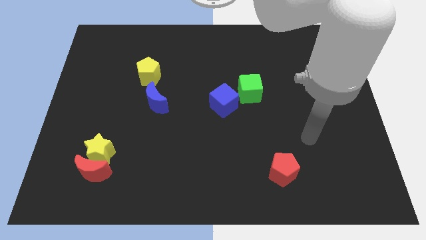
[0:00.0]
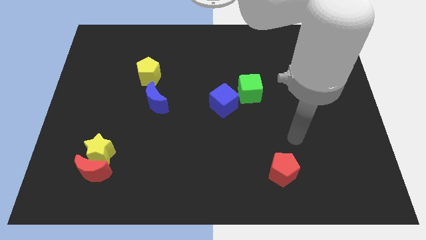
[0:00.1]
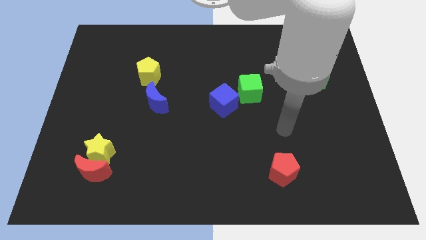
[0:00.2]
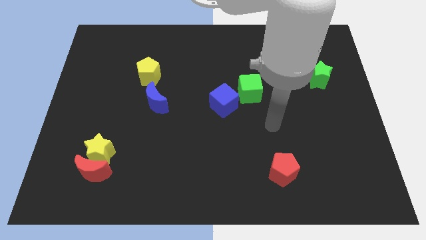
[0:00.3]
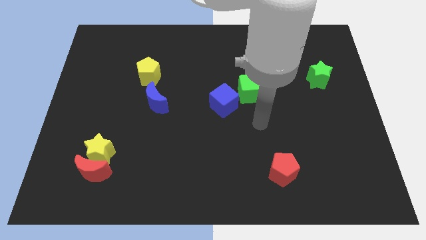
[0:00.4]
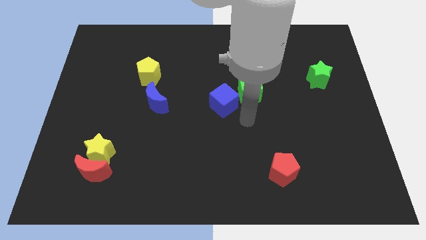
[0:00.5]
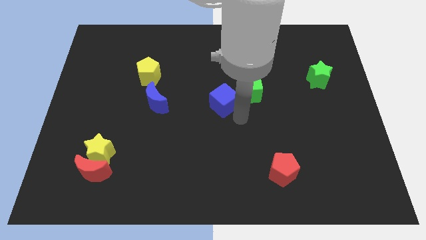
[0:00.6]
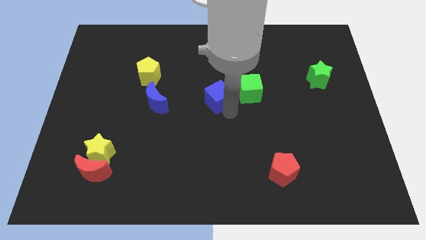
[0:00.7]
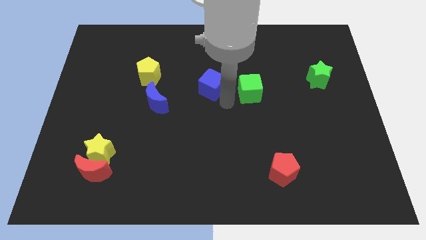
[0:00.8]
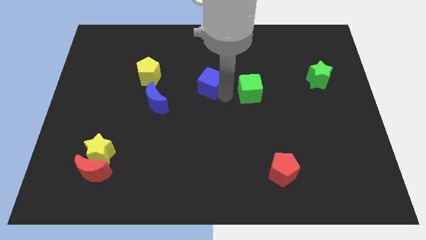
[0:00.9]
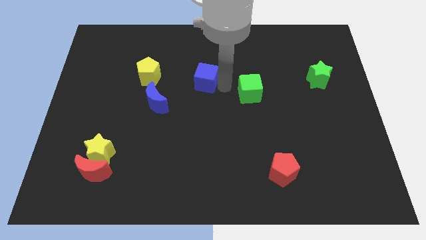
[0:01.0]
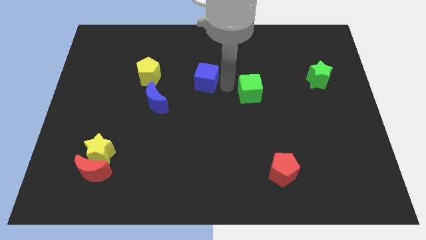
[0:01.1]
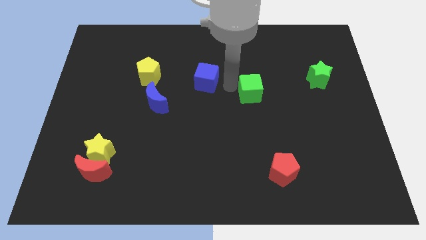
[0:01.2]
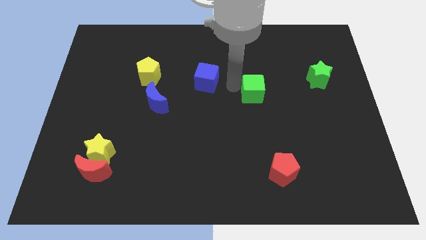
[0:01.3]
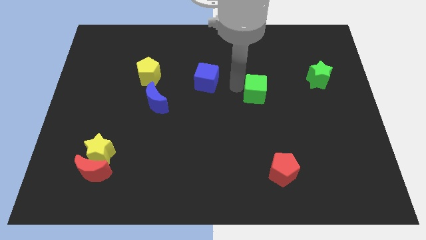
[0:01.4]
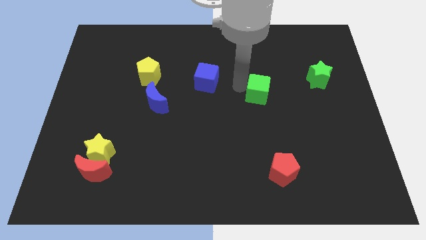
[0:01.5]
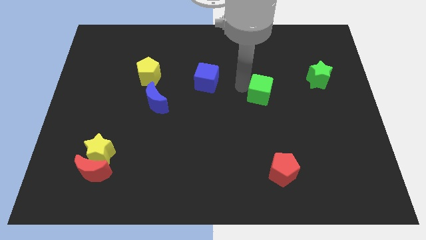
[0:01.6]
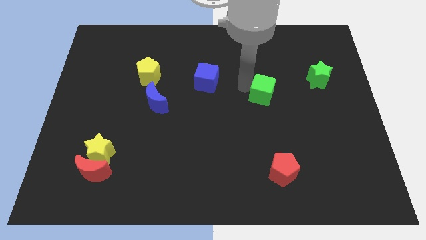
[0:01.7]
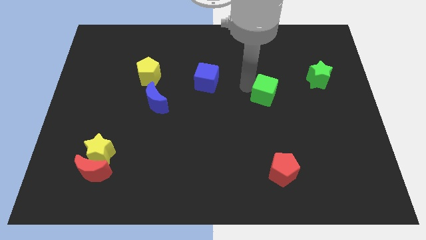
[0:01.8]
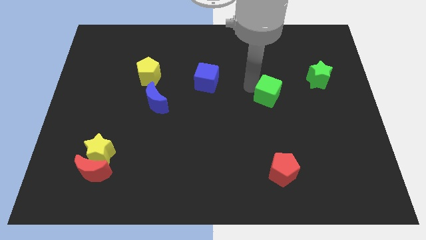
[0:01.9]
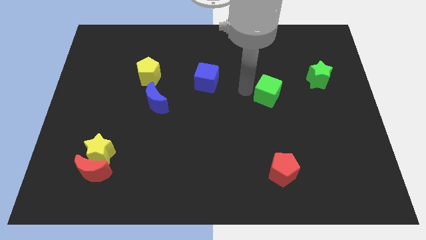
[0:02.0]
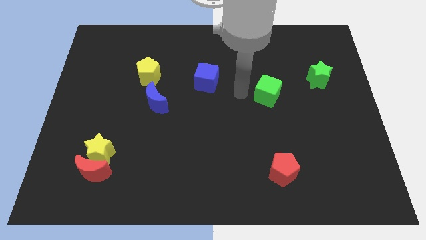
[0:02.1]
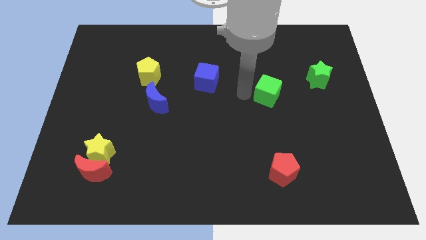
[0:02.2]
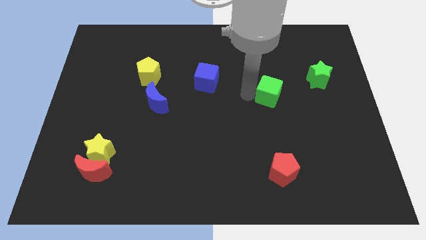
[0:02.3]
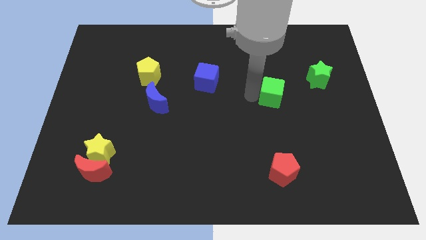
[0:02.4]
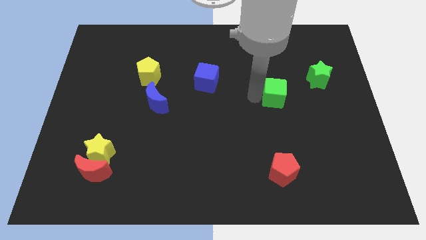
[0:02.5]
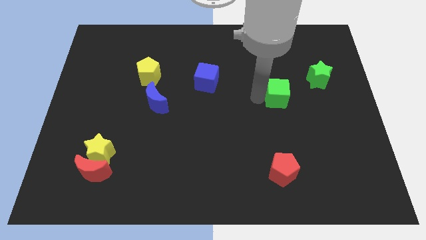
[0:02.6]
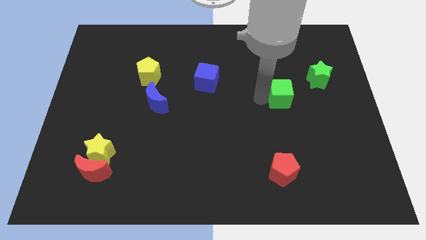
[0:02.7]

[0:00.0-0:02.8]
slightly move the green cube to the right

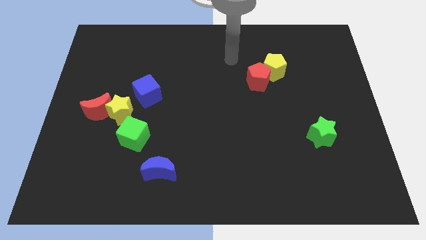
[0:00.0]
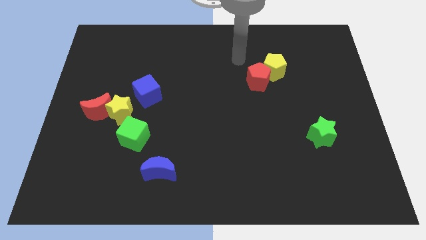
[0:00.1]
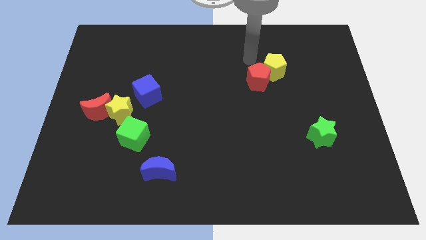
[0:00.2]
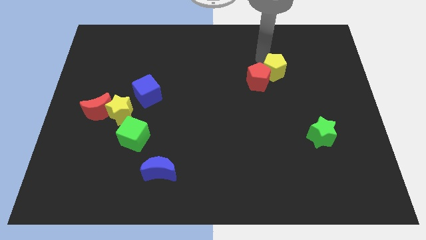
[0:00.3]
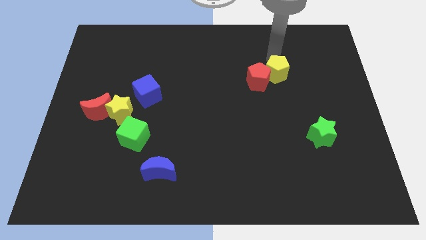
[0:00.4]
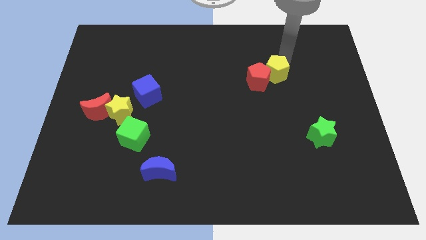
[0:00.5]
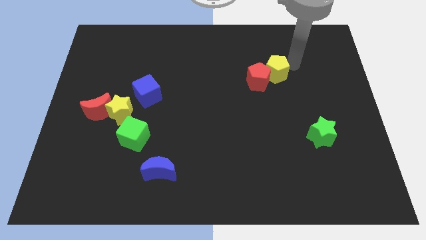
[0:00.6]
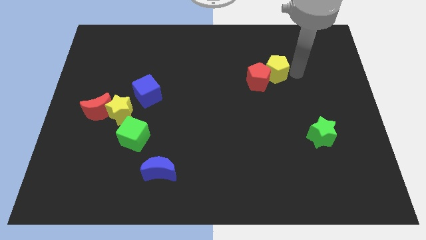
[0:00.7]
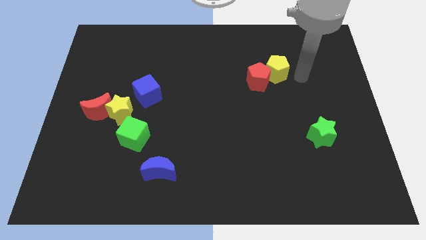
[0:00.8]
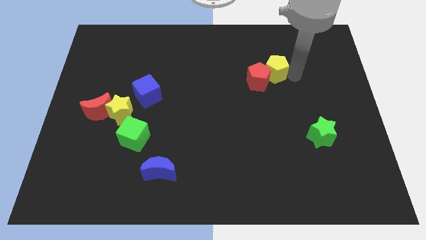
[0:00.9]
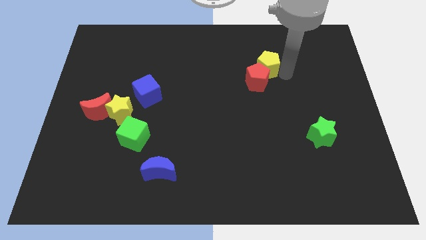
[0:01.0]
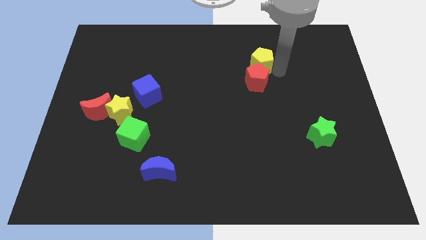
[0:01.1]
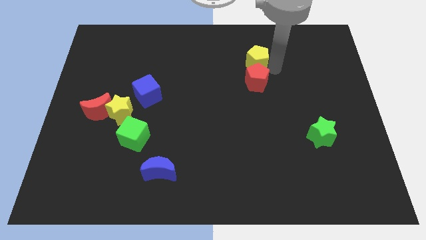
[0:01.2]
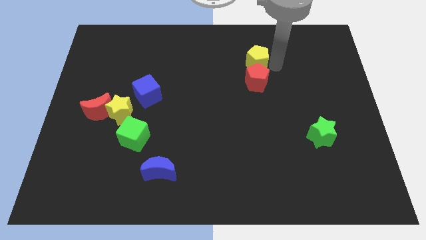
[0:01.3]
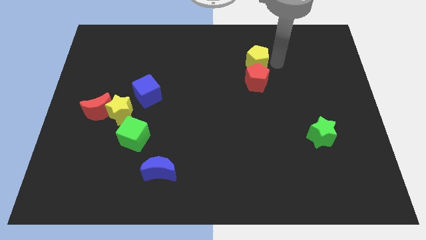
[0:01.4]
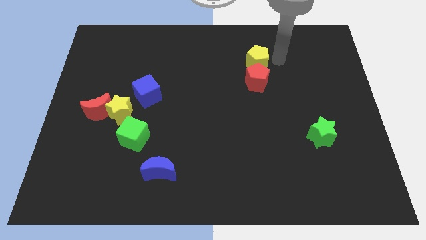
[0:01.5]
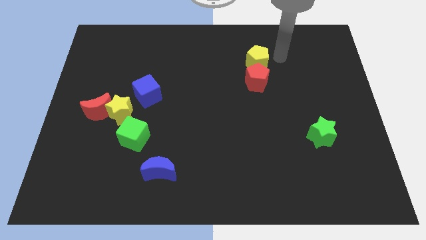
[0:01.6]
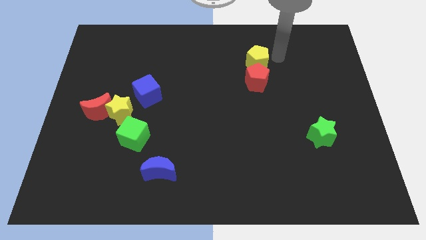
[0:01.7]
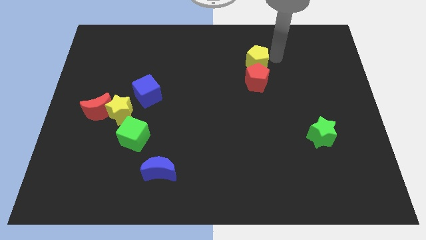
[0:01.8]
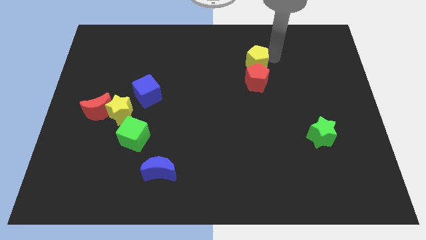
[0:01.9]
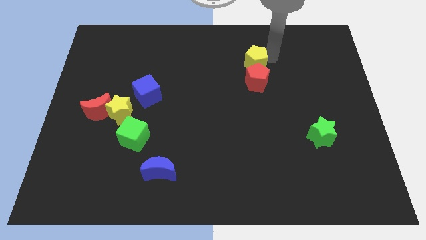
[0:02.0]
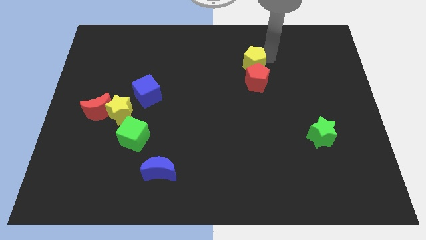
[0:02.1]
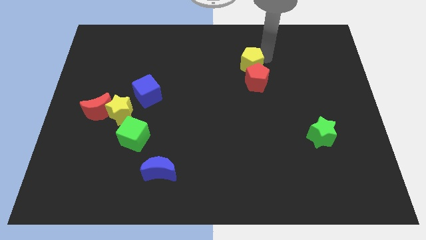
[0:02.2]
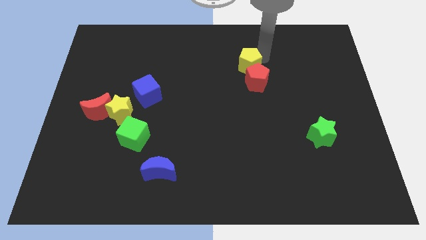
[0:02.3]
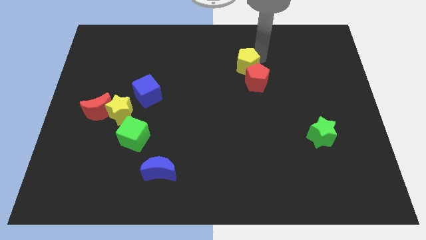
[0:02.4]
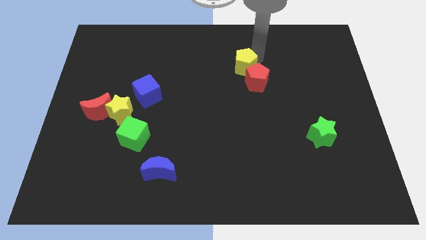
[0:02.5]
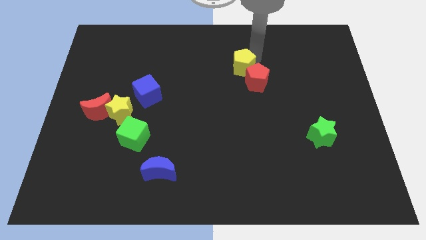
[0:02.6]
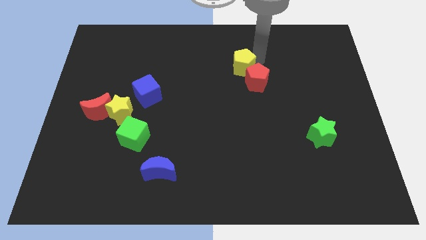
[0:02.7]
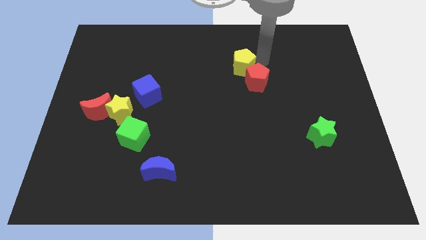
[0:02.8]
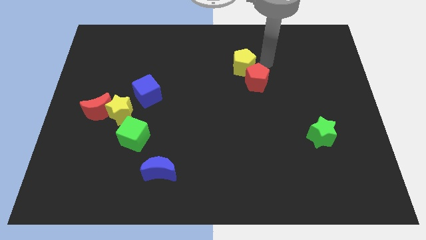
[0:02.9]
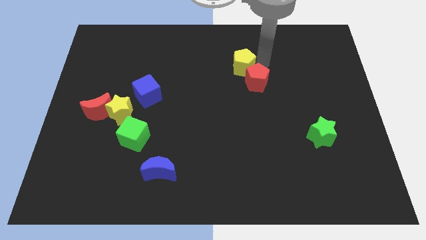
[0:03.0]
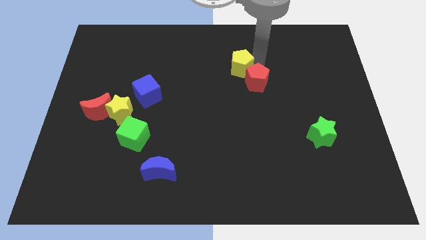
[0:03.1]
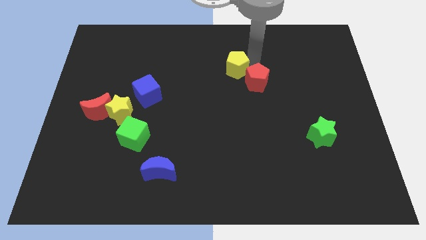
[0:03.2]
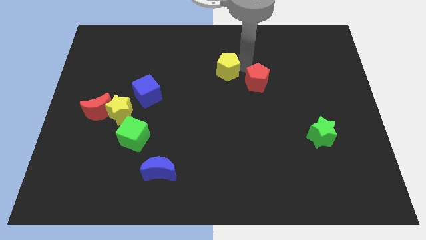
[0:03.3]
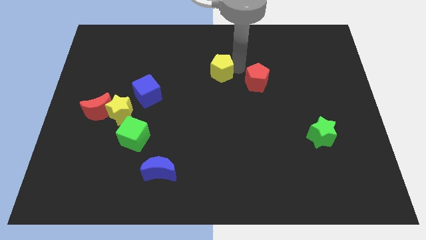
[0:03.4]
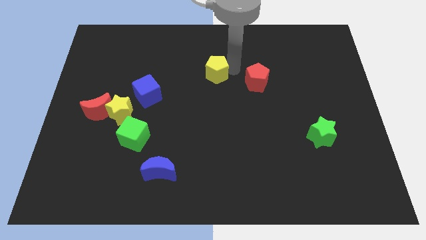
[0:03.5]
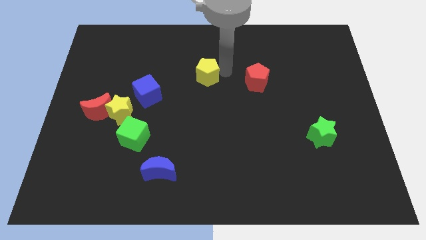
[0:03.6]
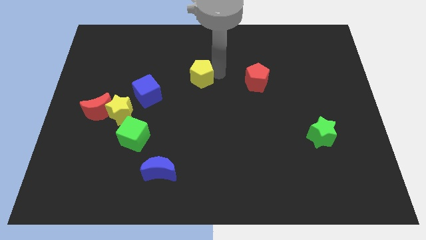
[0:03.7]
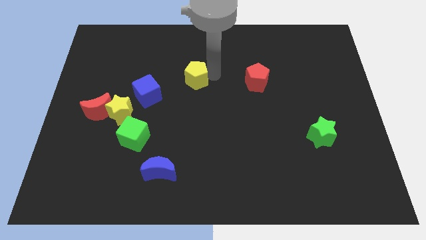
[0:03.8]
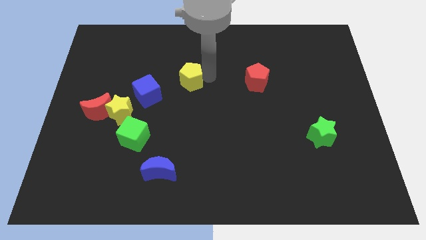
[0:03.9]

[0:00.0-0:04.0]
push the yellow pentagon to the left

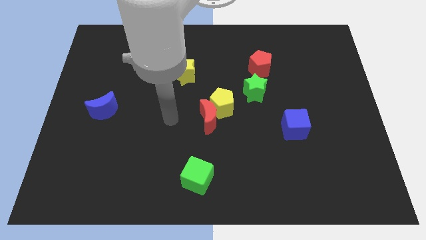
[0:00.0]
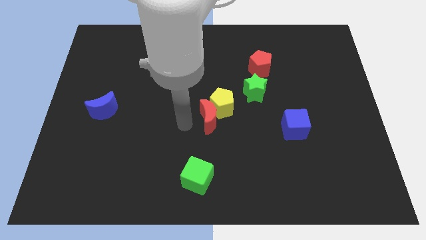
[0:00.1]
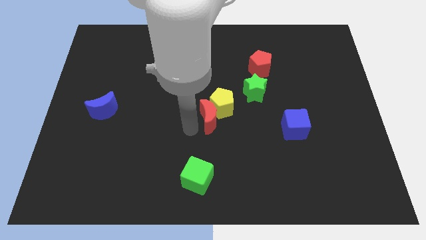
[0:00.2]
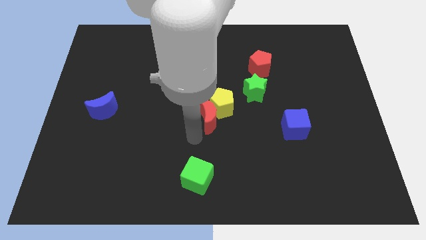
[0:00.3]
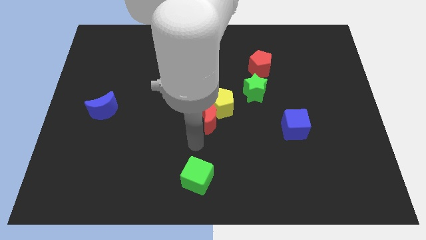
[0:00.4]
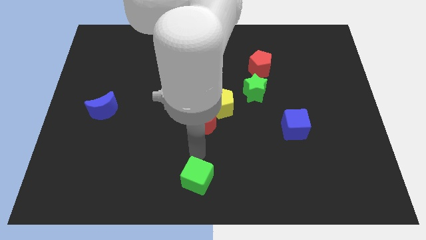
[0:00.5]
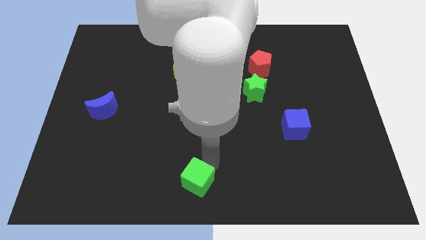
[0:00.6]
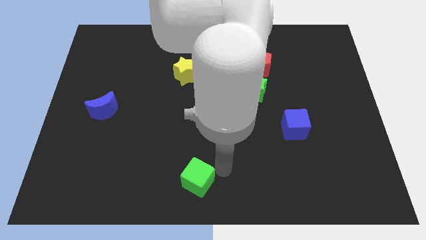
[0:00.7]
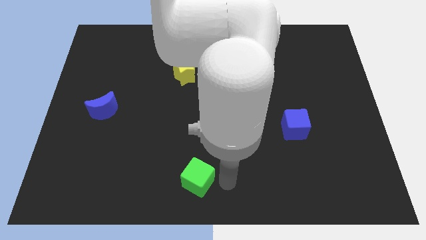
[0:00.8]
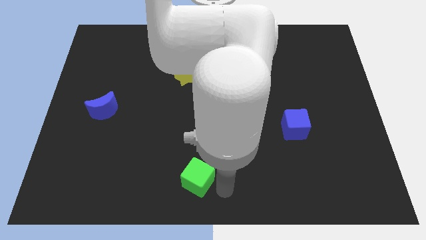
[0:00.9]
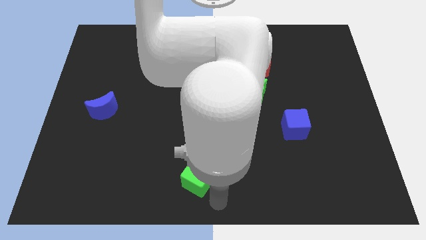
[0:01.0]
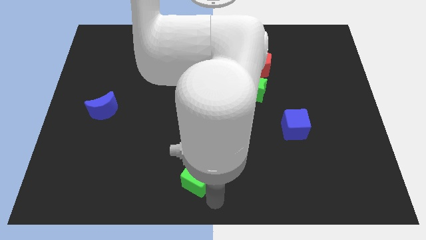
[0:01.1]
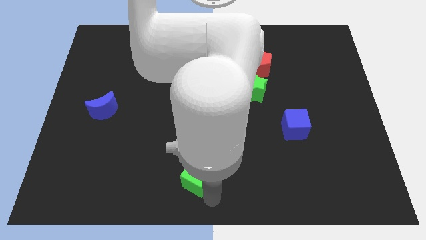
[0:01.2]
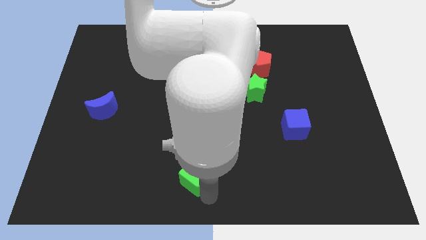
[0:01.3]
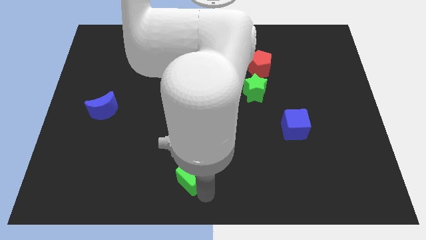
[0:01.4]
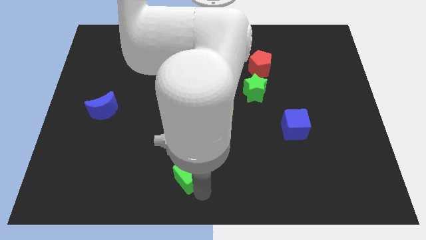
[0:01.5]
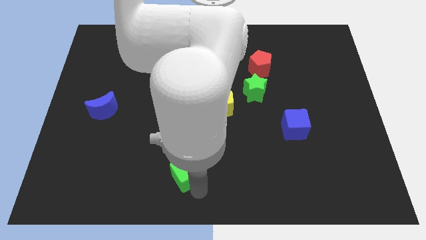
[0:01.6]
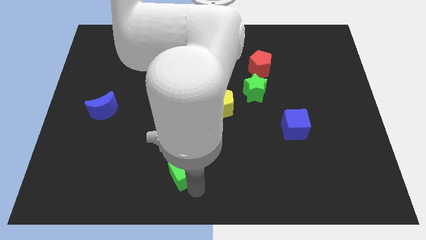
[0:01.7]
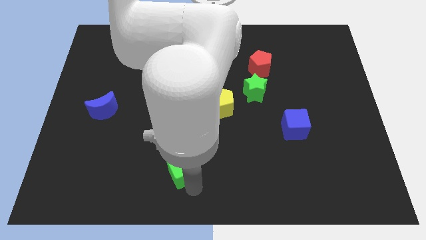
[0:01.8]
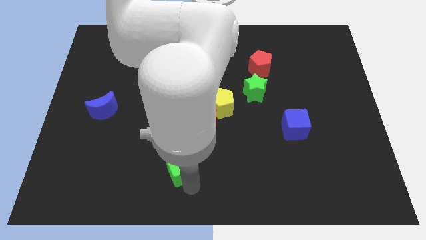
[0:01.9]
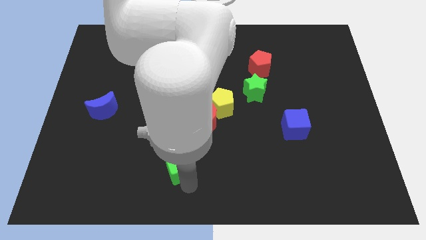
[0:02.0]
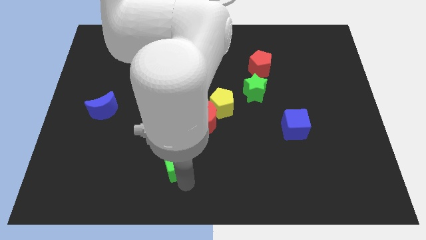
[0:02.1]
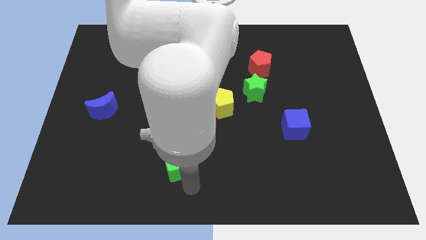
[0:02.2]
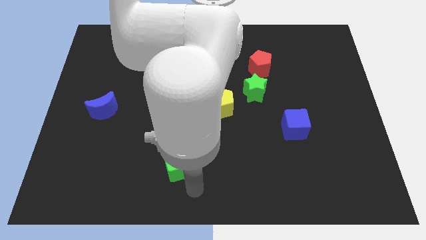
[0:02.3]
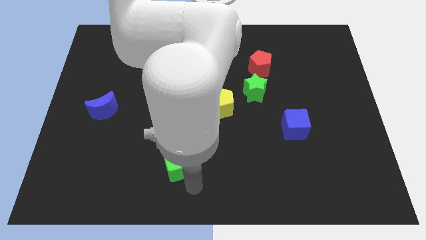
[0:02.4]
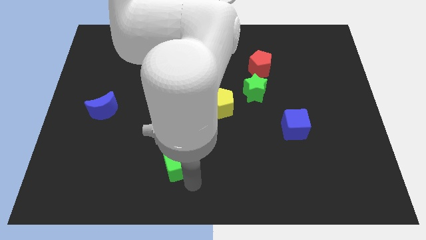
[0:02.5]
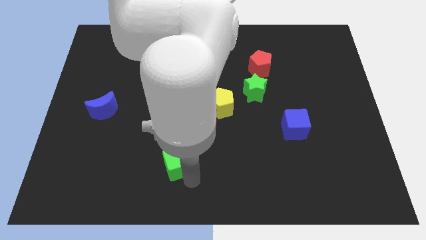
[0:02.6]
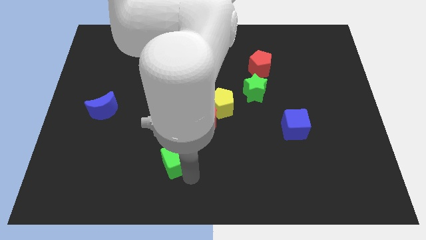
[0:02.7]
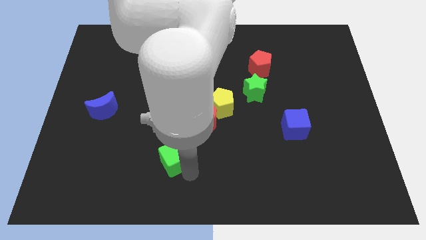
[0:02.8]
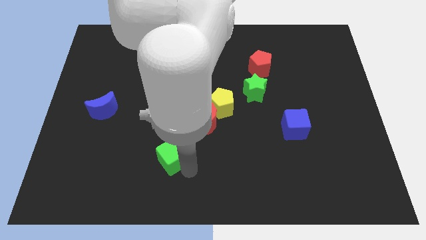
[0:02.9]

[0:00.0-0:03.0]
move the green cube a bit up and left diagonally
